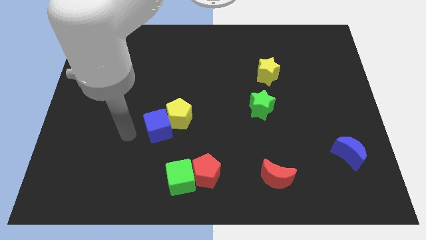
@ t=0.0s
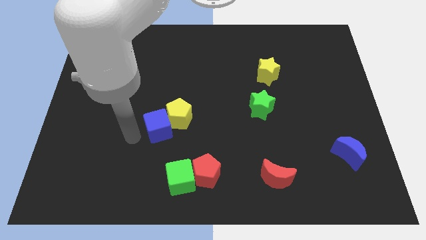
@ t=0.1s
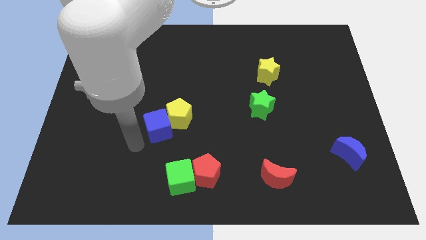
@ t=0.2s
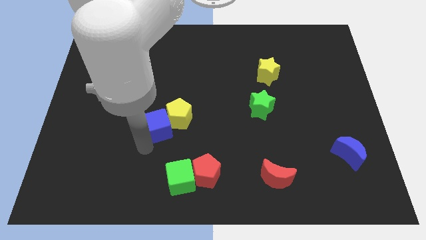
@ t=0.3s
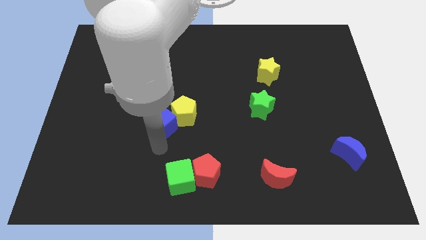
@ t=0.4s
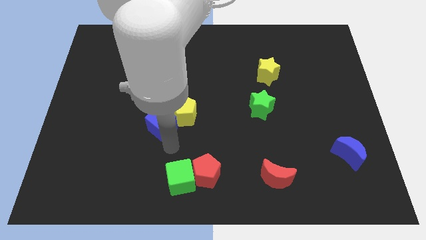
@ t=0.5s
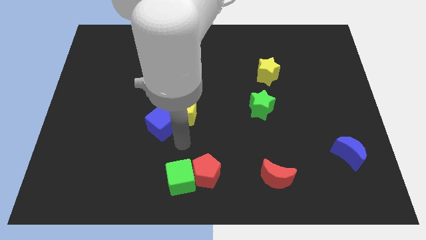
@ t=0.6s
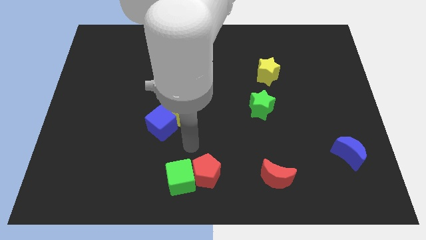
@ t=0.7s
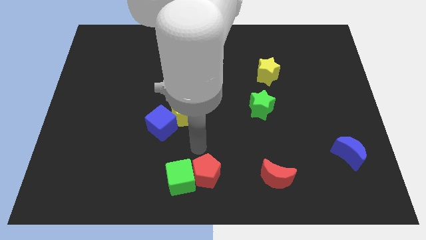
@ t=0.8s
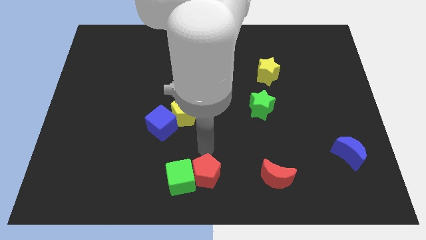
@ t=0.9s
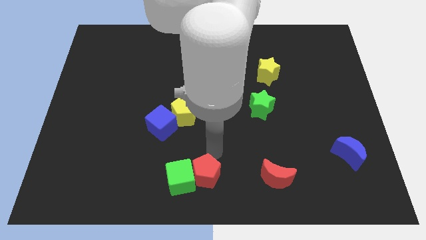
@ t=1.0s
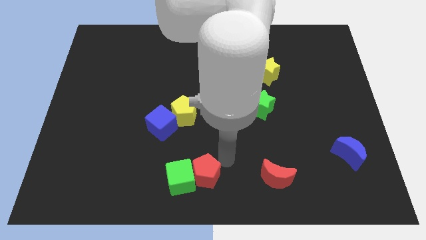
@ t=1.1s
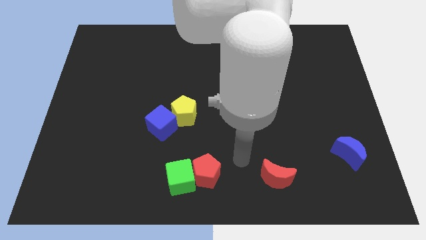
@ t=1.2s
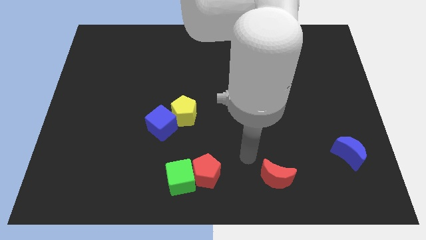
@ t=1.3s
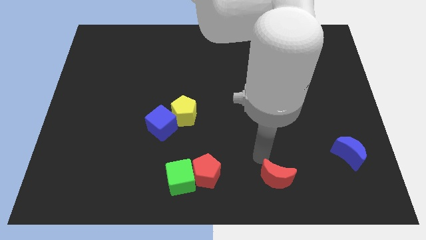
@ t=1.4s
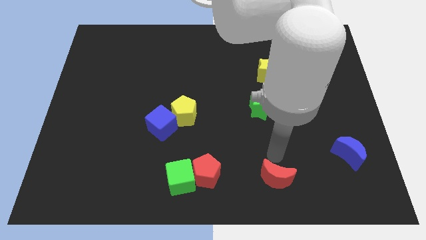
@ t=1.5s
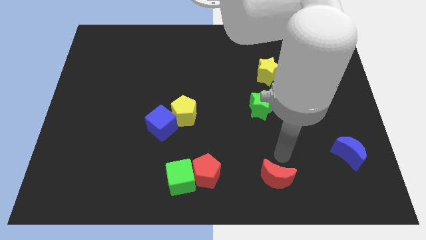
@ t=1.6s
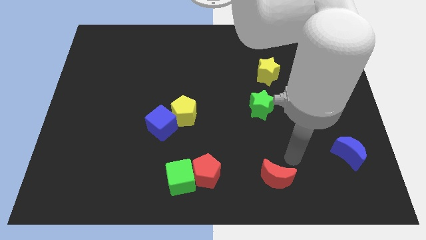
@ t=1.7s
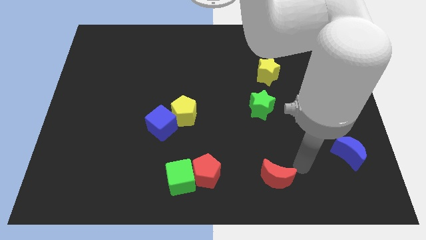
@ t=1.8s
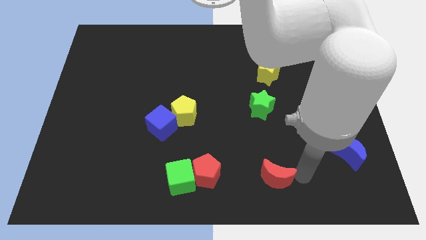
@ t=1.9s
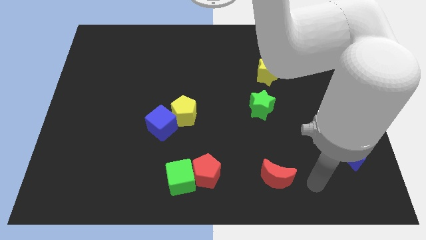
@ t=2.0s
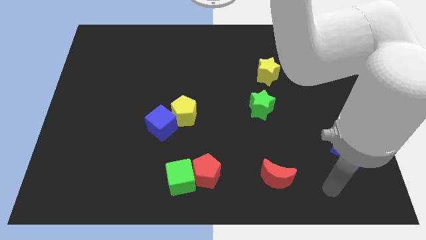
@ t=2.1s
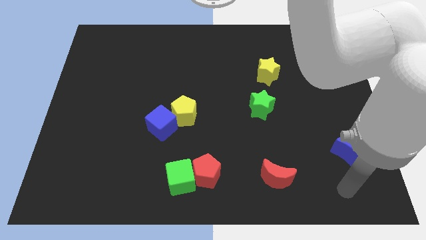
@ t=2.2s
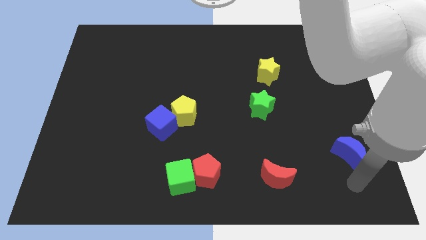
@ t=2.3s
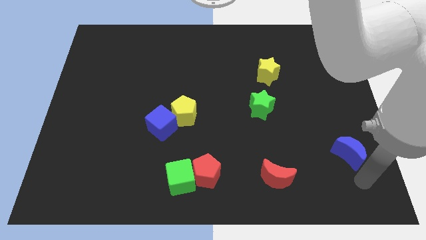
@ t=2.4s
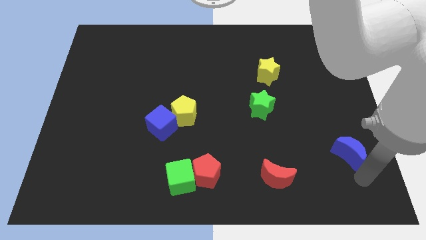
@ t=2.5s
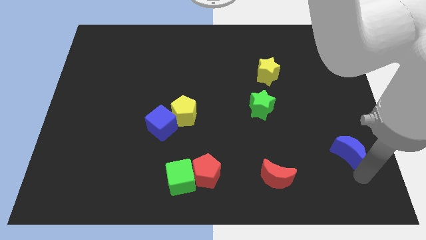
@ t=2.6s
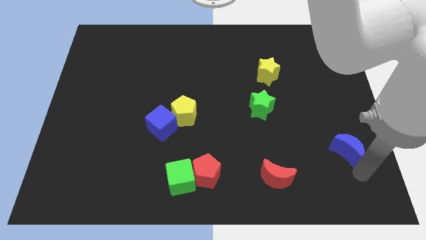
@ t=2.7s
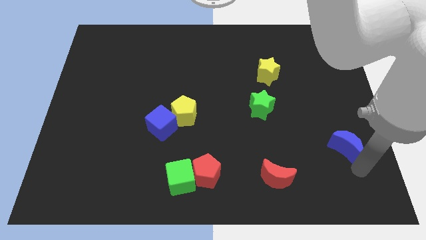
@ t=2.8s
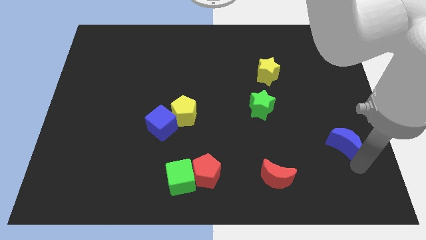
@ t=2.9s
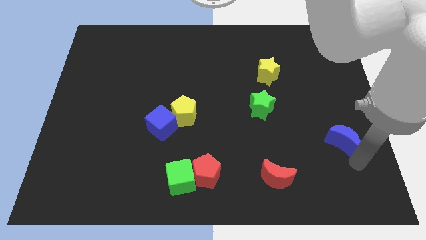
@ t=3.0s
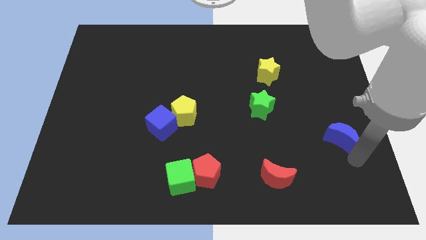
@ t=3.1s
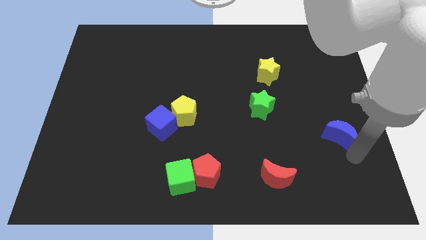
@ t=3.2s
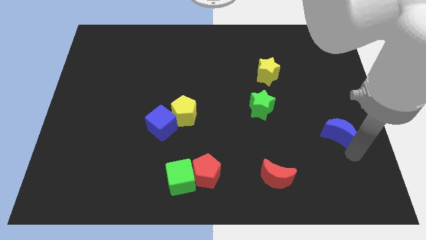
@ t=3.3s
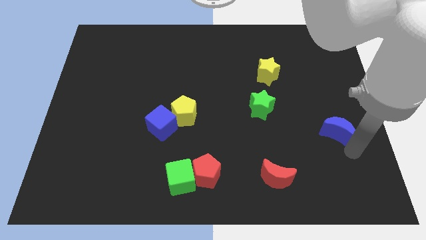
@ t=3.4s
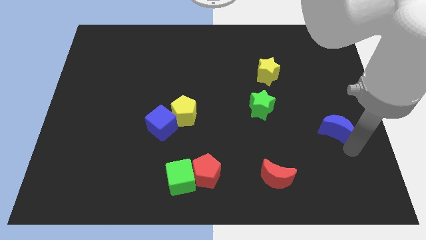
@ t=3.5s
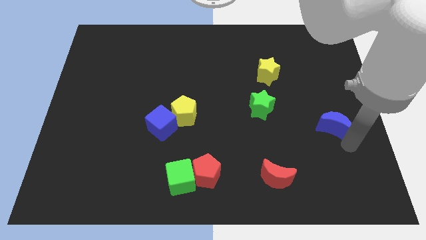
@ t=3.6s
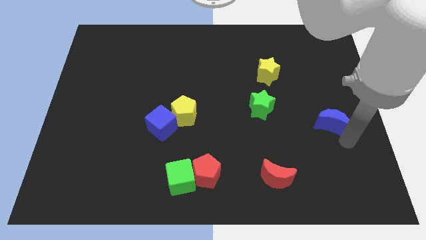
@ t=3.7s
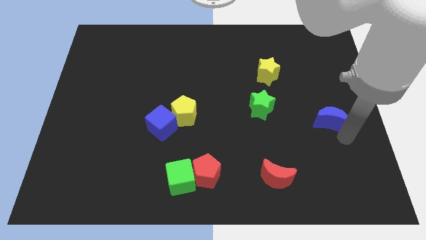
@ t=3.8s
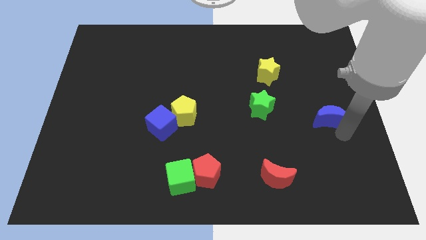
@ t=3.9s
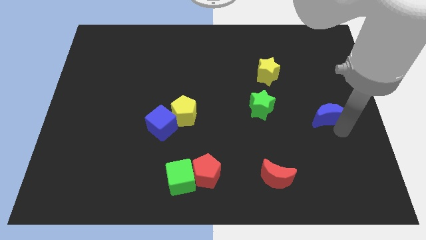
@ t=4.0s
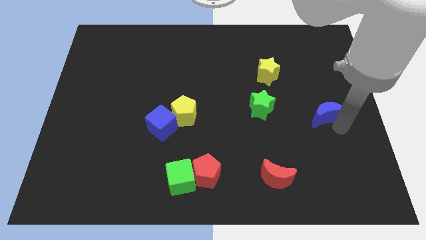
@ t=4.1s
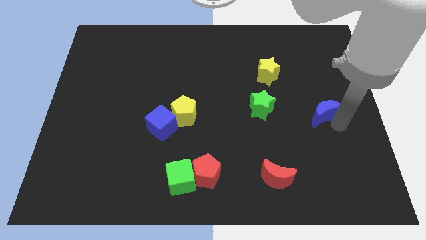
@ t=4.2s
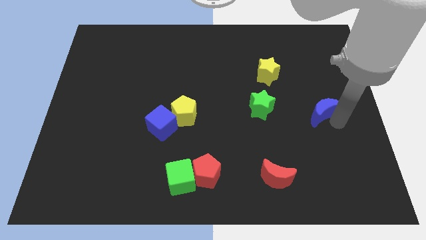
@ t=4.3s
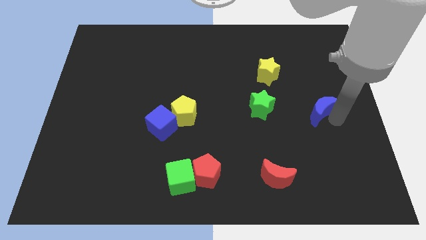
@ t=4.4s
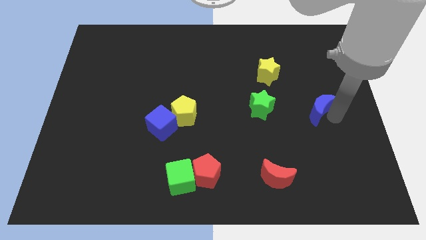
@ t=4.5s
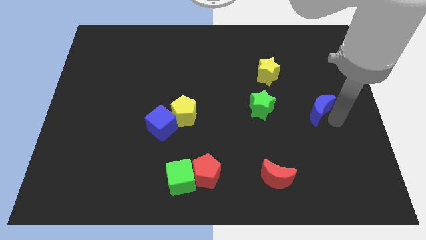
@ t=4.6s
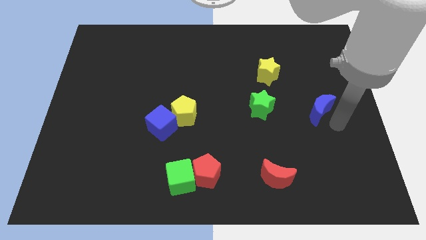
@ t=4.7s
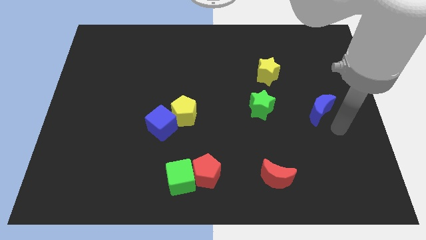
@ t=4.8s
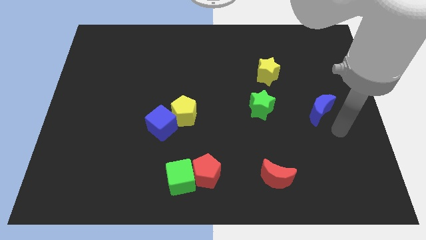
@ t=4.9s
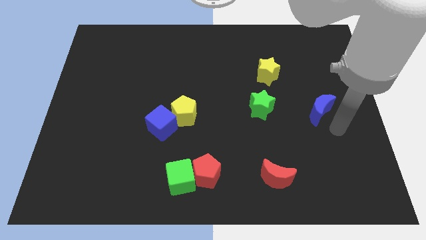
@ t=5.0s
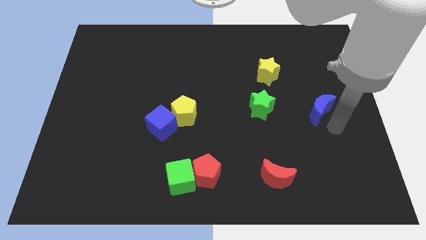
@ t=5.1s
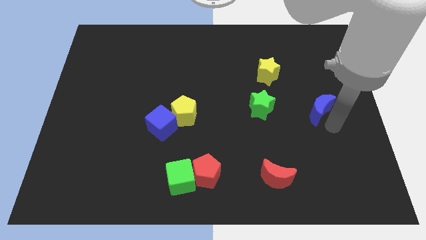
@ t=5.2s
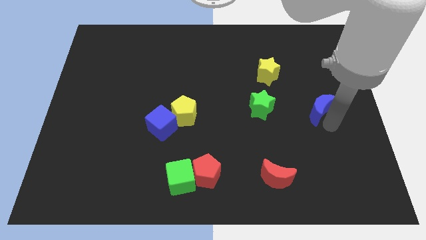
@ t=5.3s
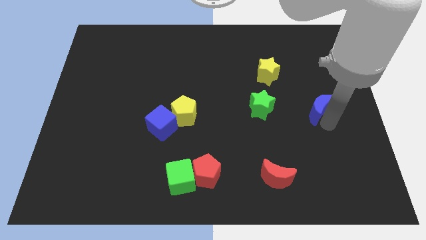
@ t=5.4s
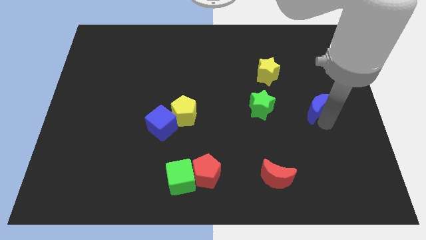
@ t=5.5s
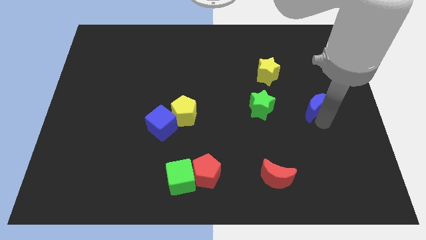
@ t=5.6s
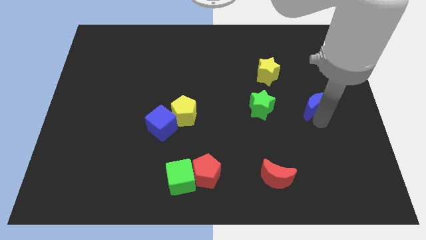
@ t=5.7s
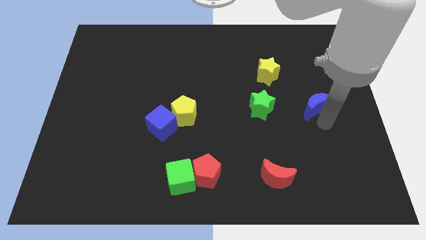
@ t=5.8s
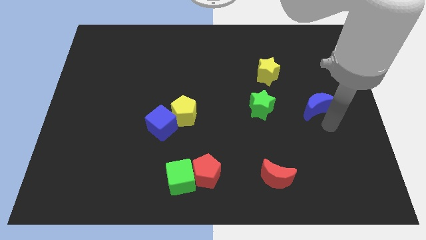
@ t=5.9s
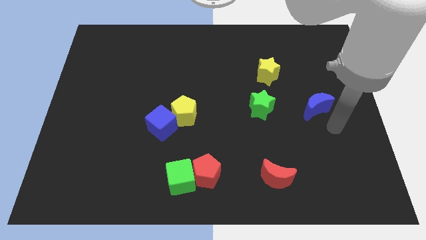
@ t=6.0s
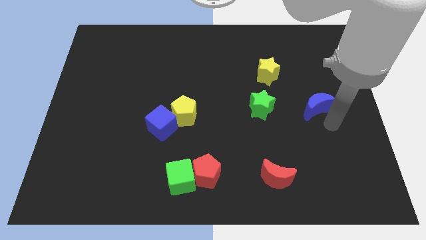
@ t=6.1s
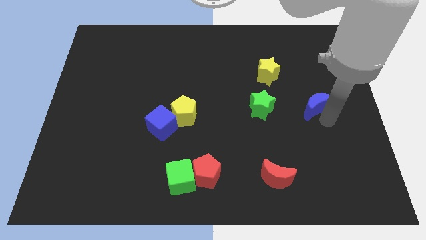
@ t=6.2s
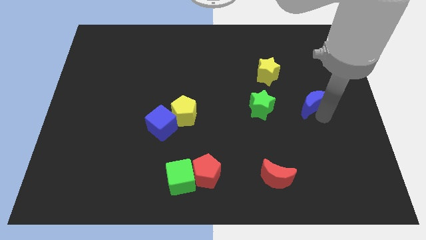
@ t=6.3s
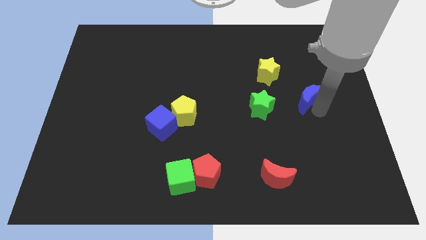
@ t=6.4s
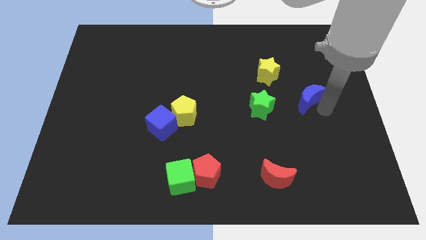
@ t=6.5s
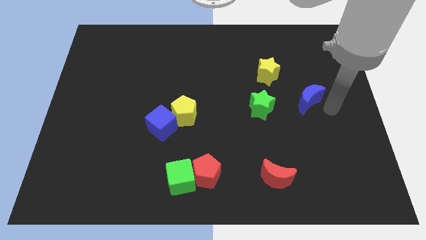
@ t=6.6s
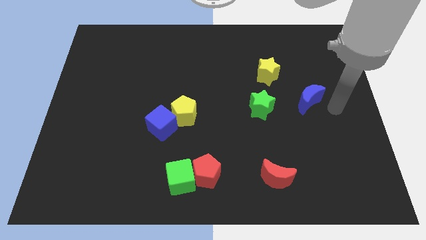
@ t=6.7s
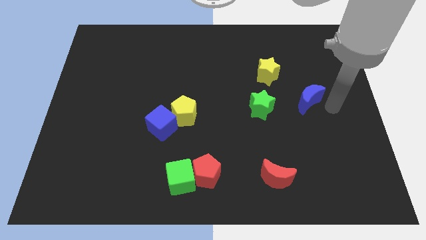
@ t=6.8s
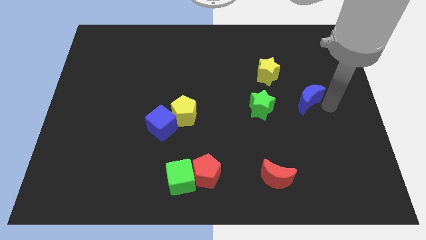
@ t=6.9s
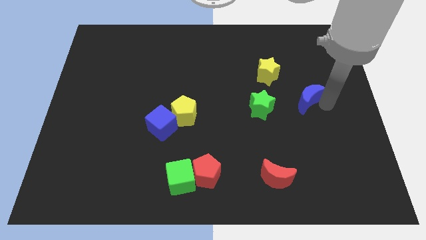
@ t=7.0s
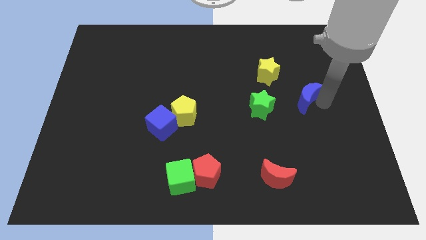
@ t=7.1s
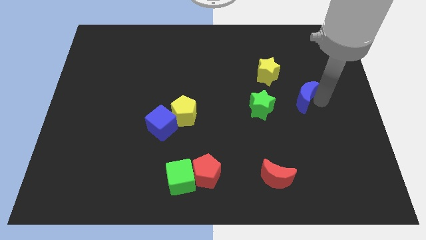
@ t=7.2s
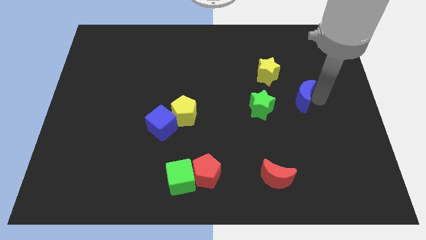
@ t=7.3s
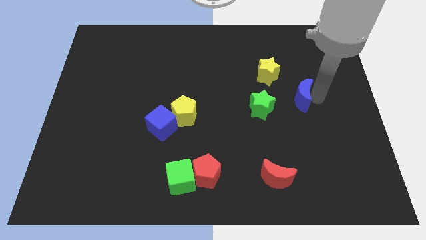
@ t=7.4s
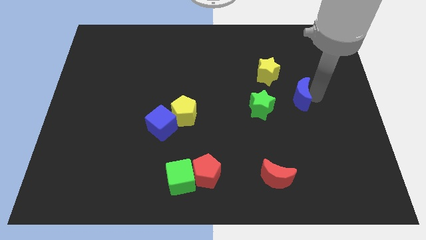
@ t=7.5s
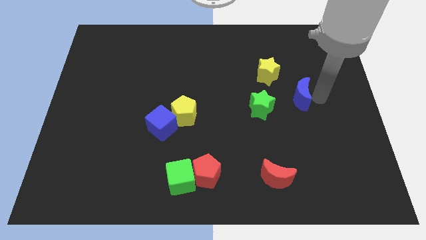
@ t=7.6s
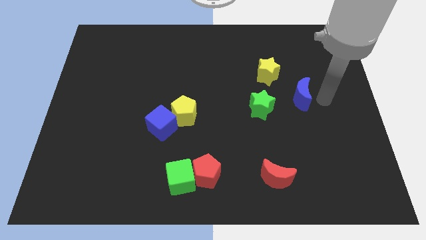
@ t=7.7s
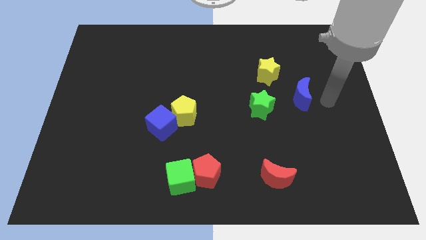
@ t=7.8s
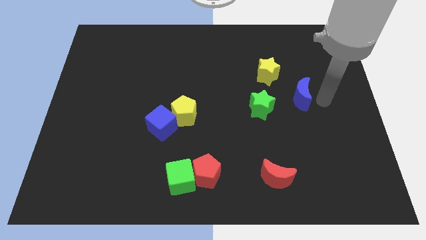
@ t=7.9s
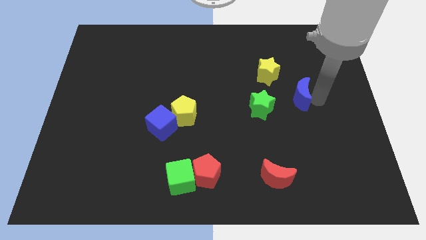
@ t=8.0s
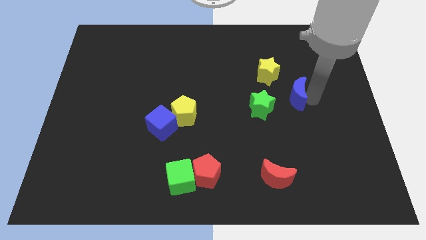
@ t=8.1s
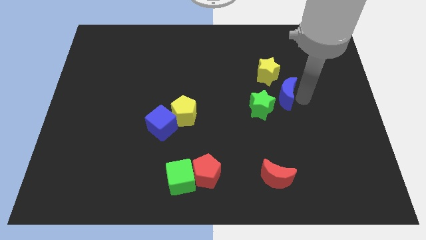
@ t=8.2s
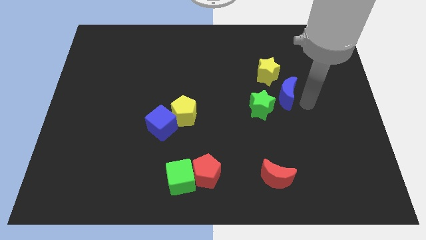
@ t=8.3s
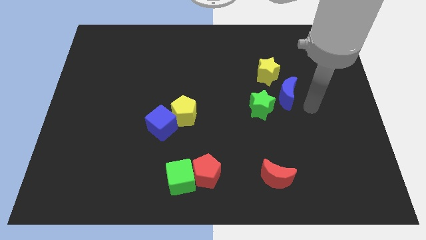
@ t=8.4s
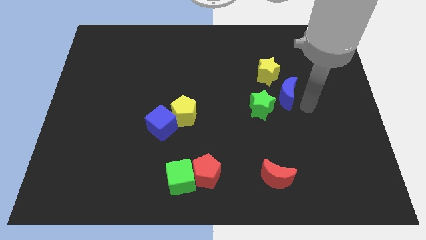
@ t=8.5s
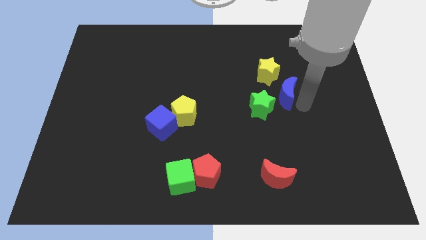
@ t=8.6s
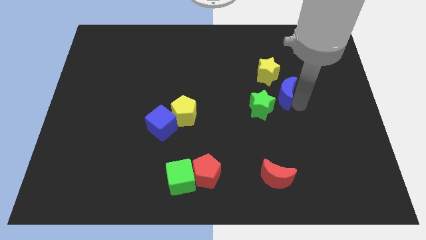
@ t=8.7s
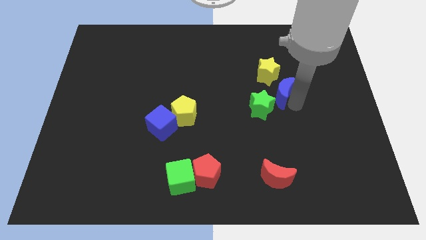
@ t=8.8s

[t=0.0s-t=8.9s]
slide the blue moon diagonally upwards and left
